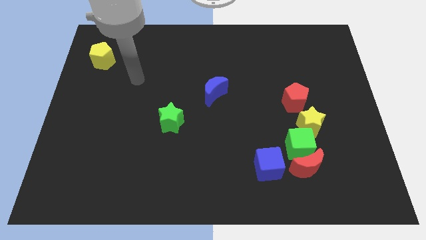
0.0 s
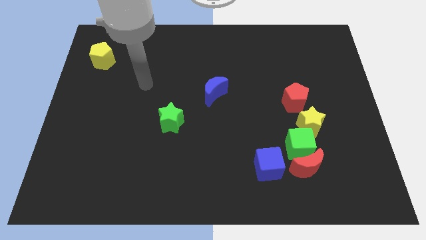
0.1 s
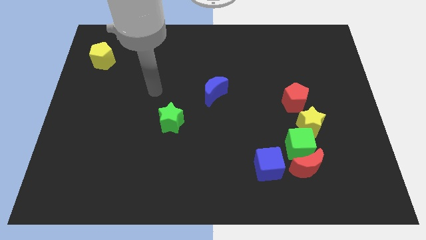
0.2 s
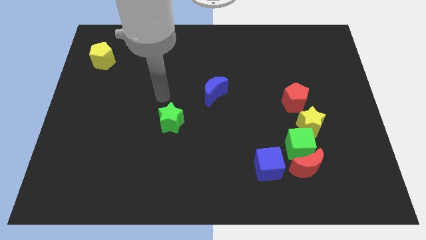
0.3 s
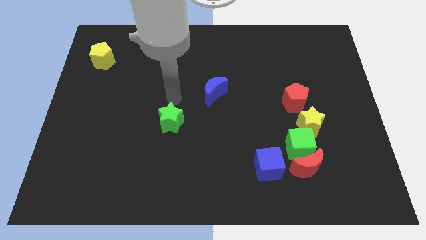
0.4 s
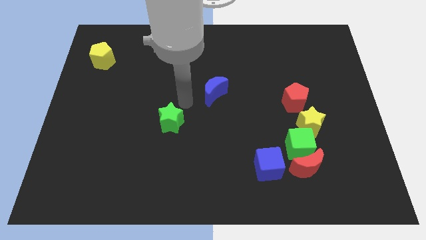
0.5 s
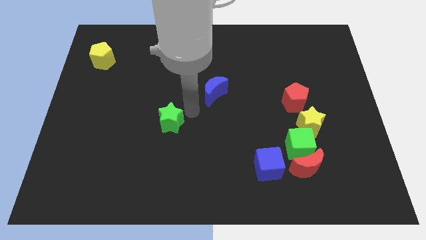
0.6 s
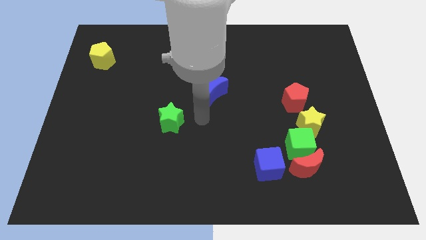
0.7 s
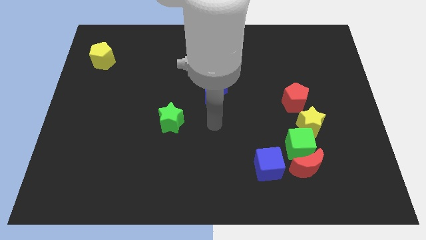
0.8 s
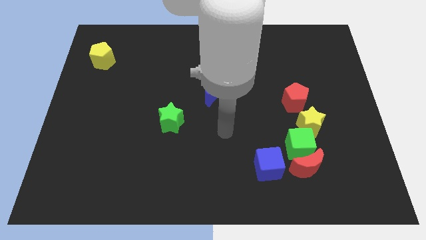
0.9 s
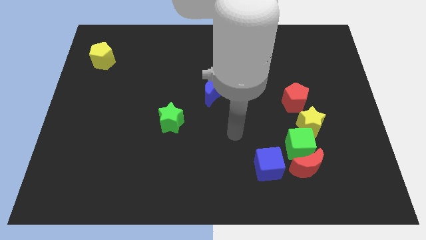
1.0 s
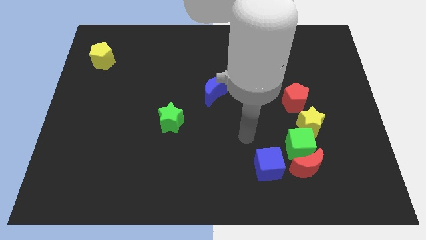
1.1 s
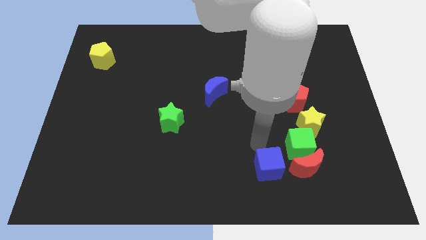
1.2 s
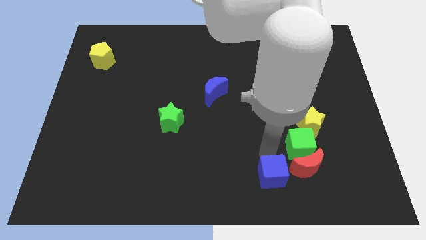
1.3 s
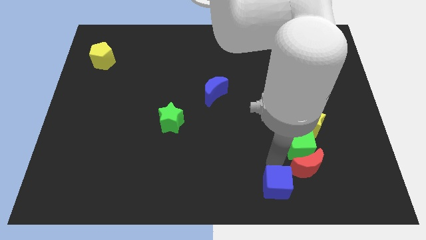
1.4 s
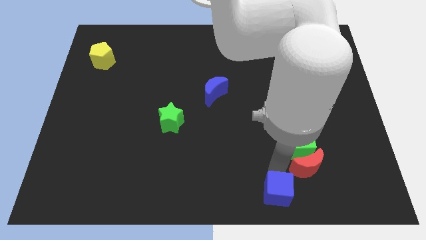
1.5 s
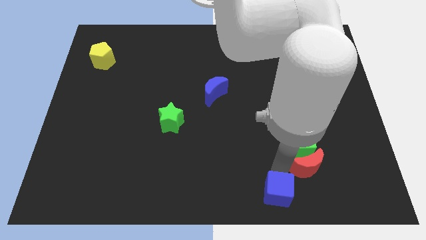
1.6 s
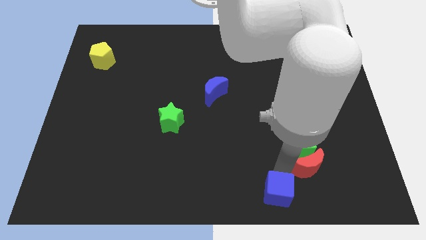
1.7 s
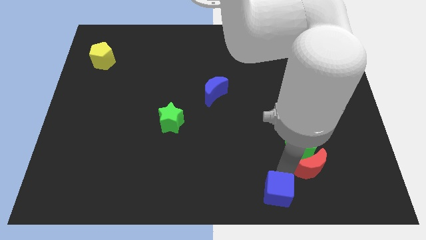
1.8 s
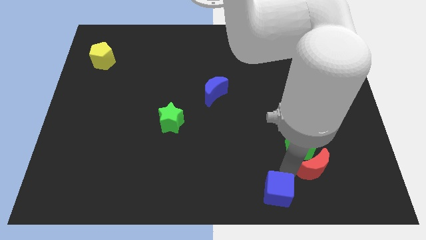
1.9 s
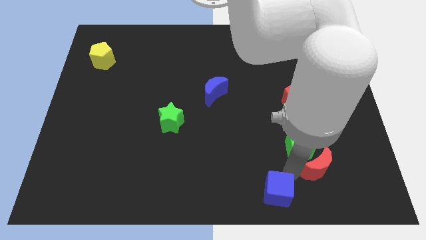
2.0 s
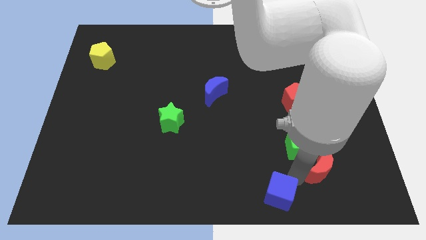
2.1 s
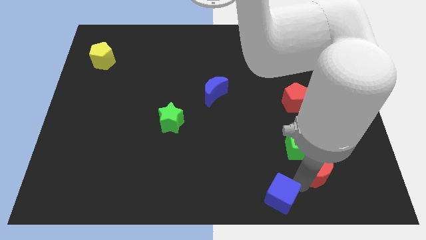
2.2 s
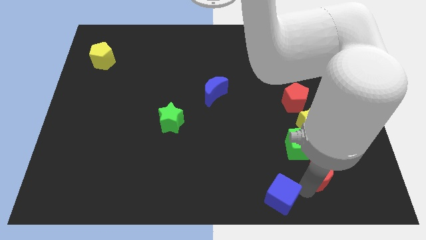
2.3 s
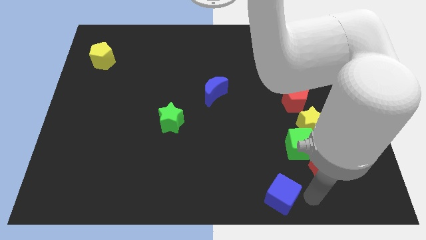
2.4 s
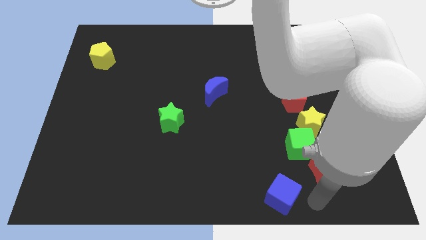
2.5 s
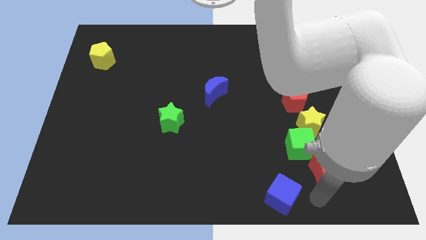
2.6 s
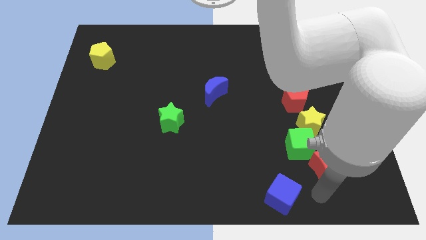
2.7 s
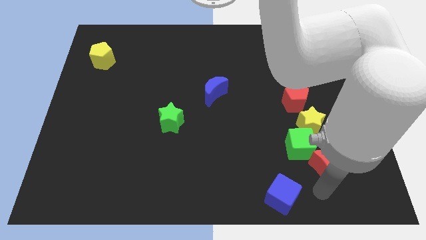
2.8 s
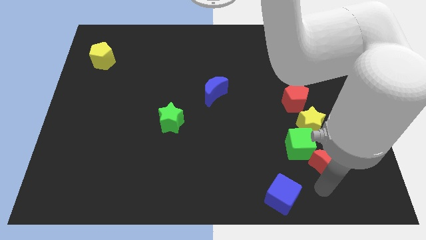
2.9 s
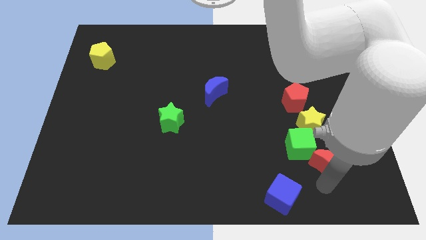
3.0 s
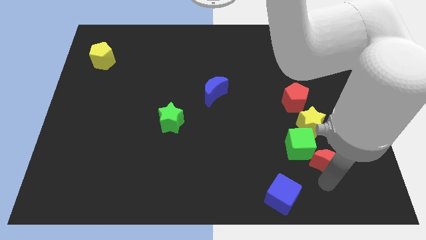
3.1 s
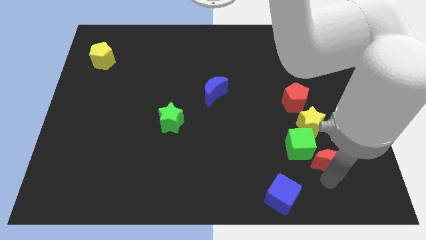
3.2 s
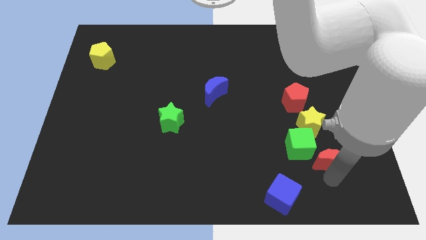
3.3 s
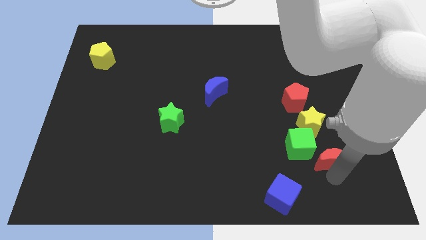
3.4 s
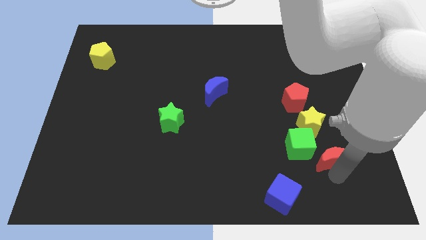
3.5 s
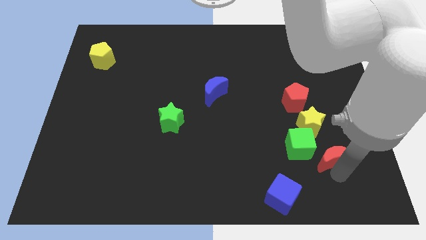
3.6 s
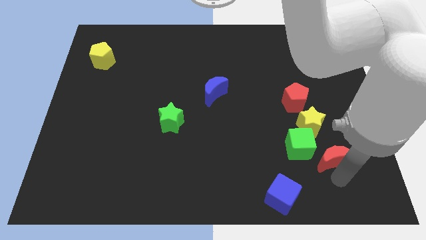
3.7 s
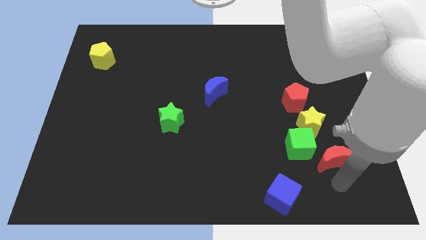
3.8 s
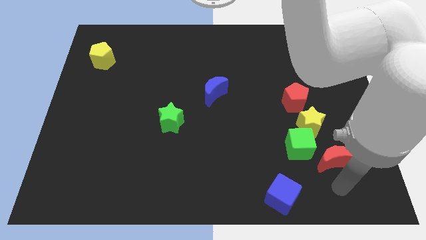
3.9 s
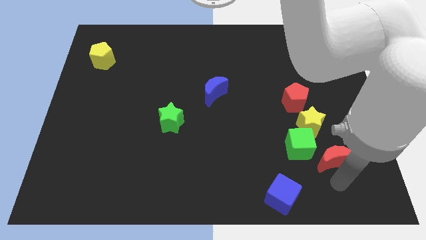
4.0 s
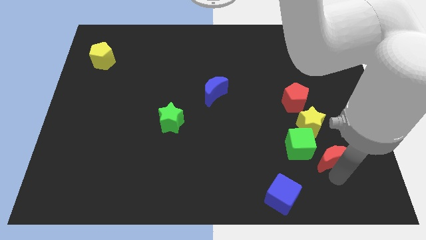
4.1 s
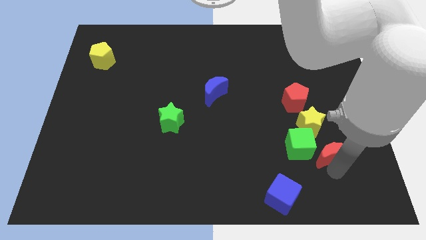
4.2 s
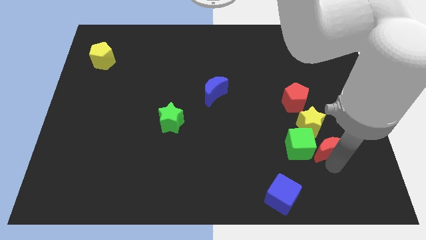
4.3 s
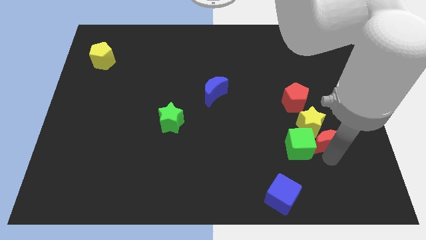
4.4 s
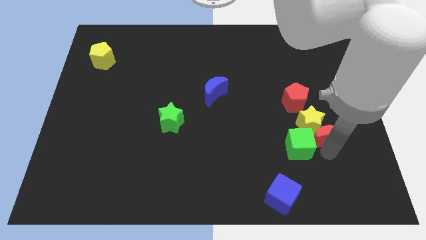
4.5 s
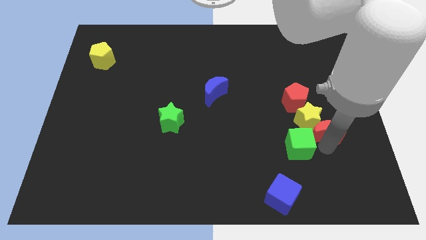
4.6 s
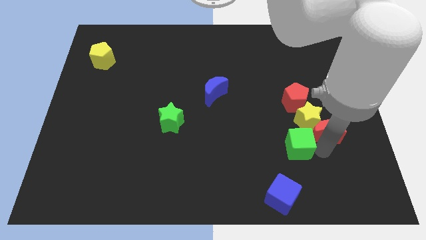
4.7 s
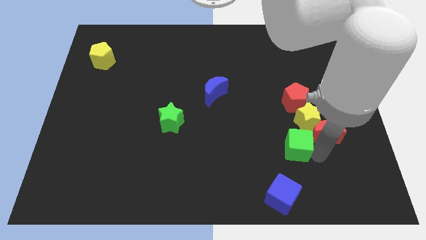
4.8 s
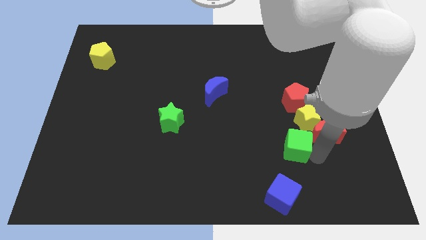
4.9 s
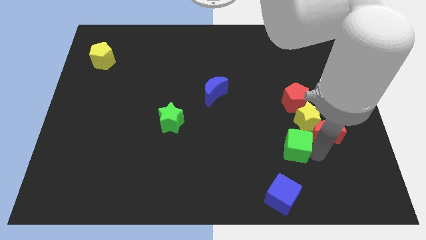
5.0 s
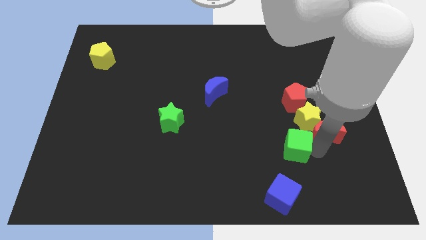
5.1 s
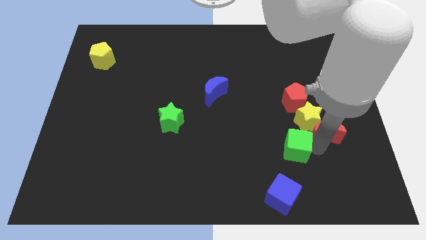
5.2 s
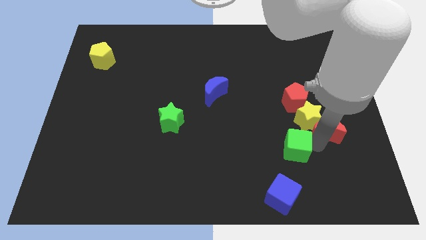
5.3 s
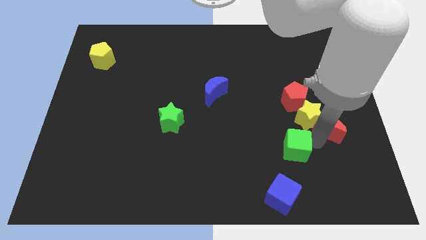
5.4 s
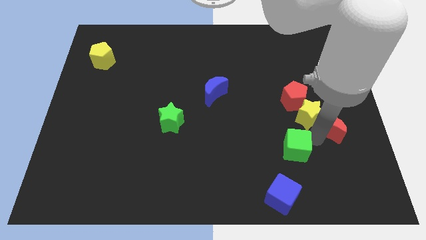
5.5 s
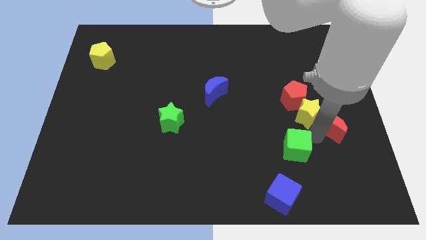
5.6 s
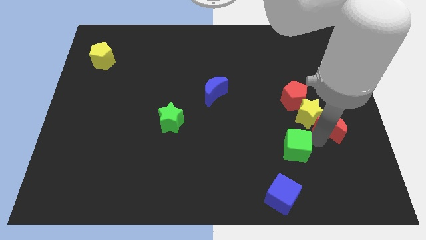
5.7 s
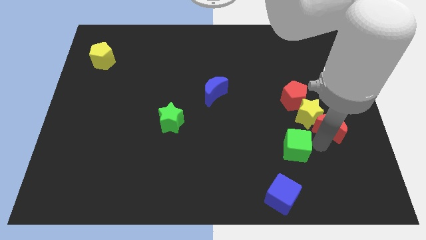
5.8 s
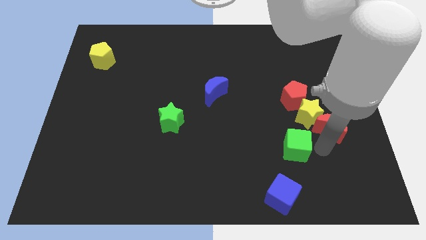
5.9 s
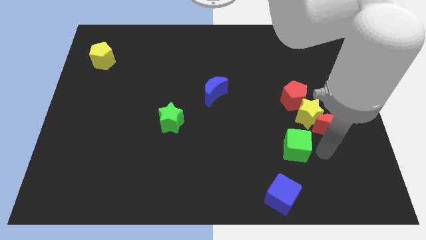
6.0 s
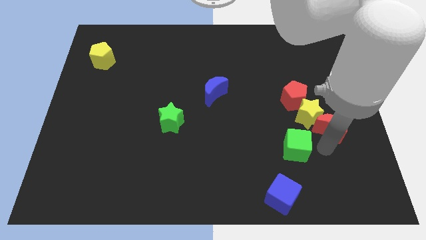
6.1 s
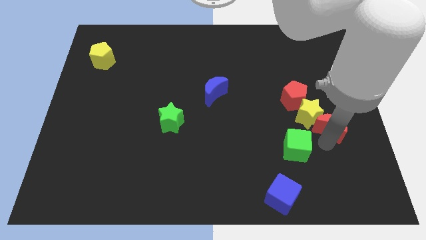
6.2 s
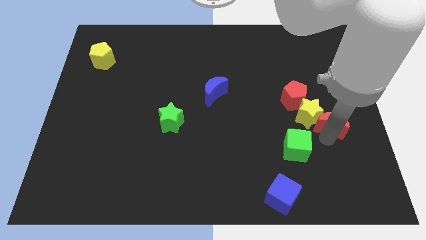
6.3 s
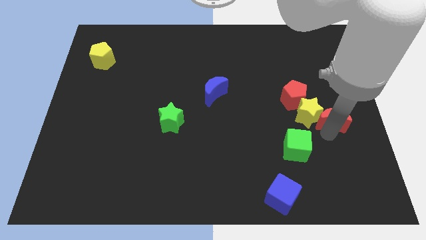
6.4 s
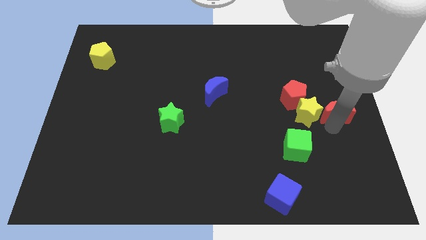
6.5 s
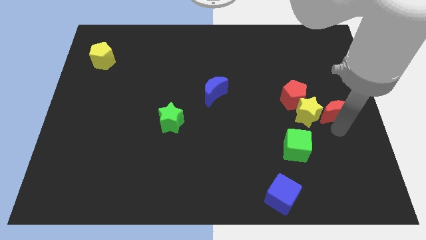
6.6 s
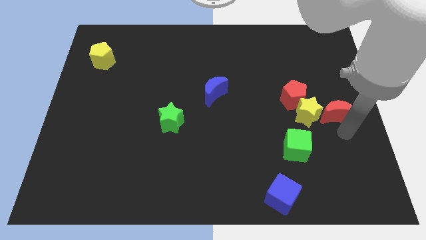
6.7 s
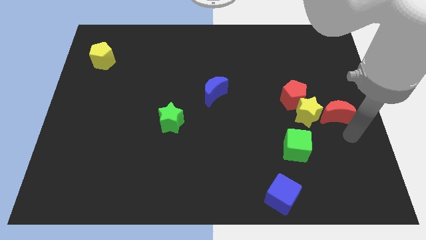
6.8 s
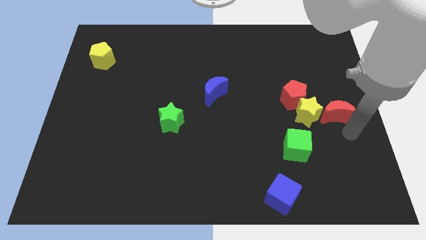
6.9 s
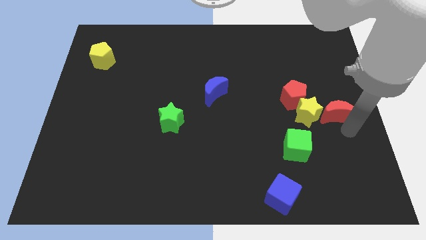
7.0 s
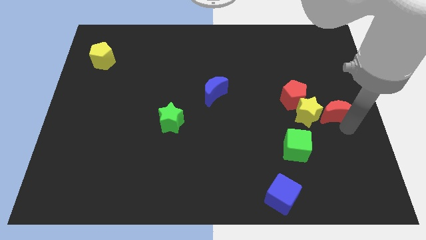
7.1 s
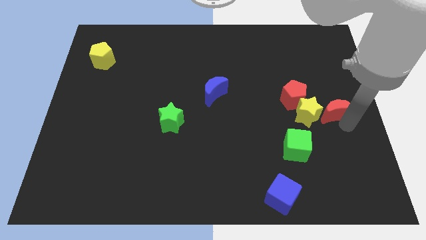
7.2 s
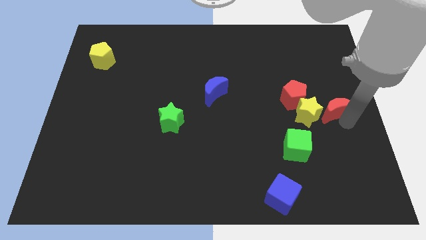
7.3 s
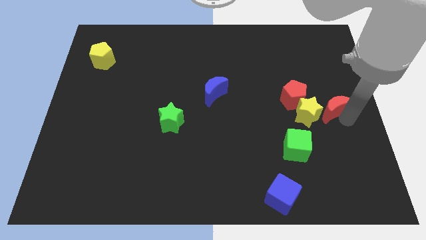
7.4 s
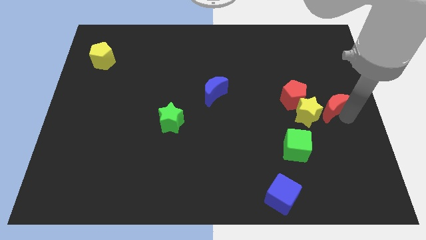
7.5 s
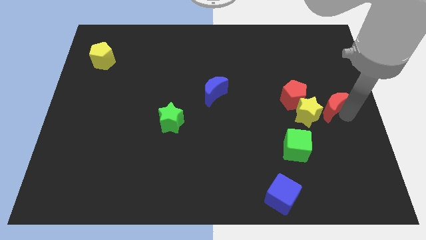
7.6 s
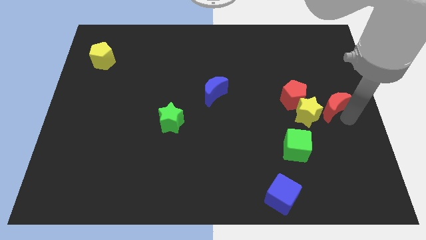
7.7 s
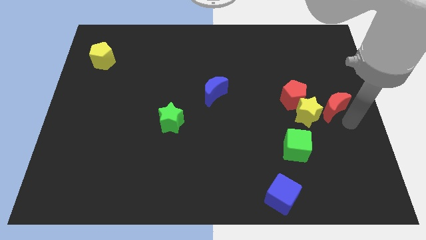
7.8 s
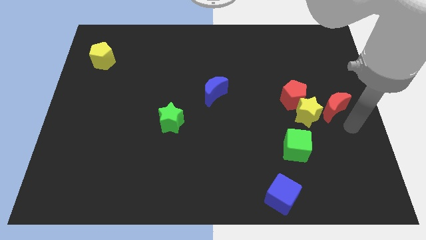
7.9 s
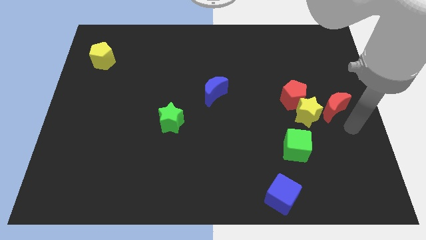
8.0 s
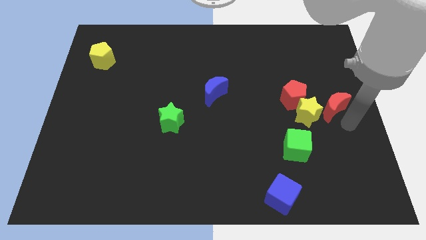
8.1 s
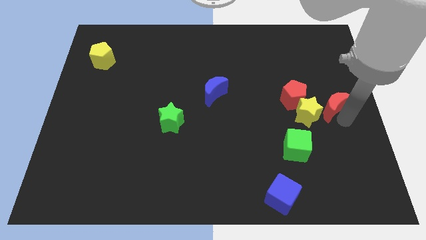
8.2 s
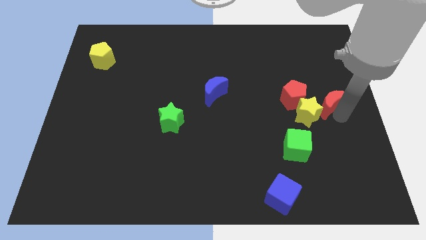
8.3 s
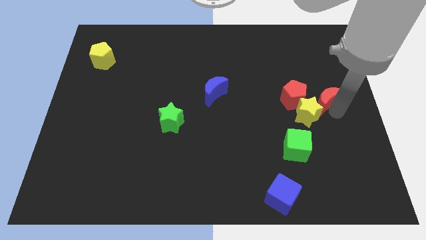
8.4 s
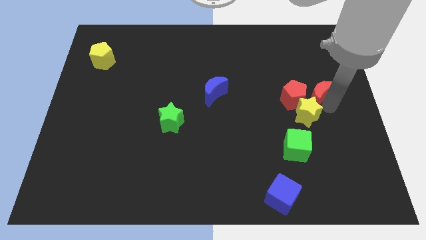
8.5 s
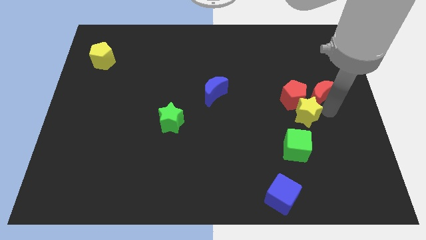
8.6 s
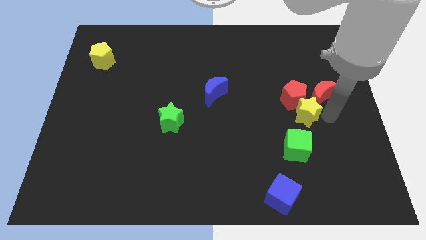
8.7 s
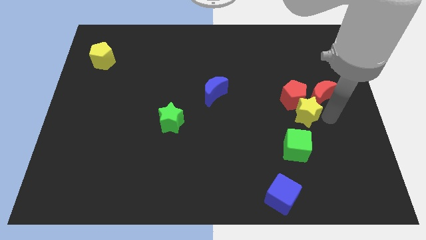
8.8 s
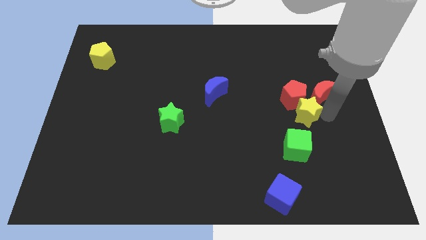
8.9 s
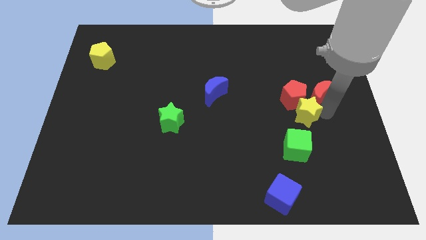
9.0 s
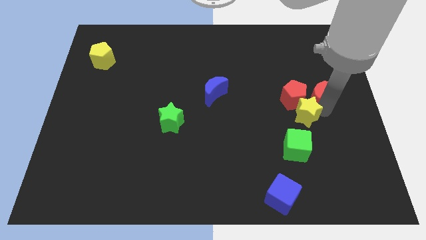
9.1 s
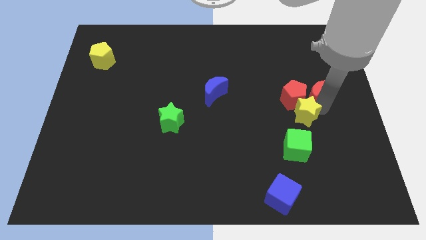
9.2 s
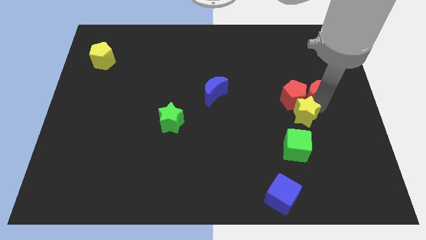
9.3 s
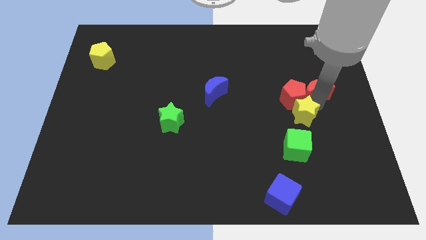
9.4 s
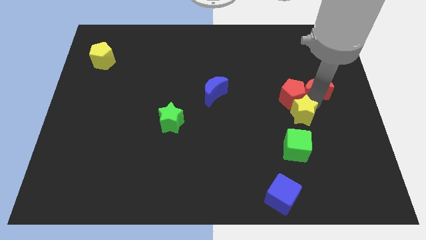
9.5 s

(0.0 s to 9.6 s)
move the red moon up
